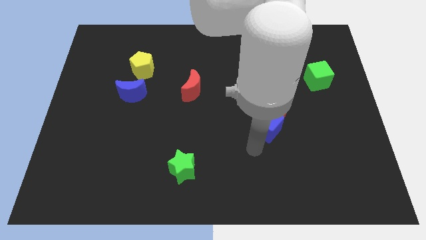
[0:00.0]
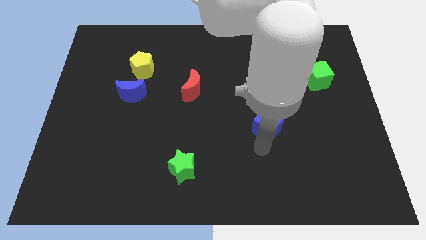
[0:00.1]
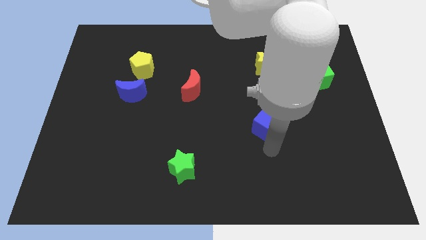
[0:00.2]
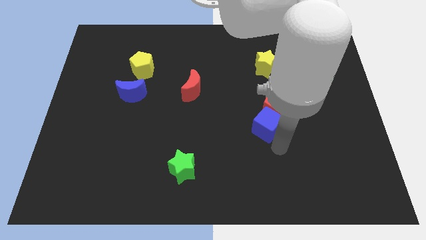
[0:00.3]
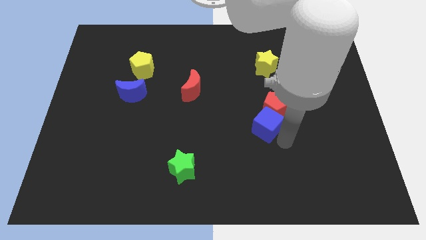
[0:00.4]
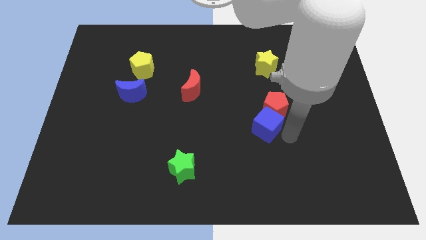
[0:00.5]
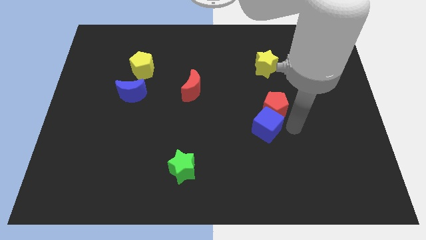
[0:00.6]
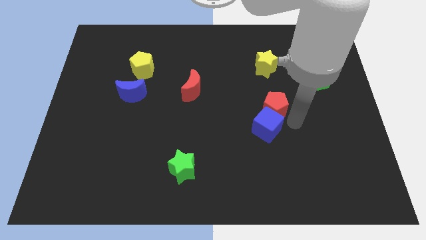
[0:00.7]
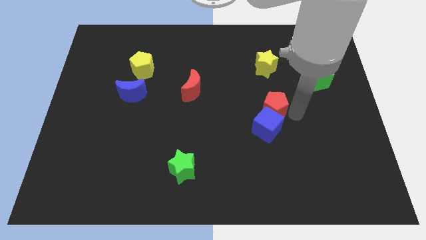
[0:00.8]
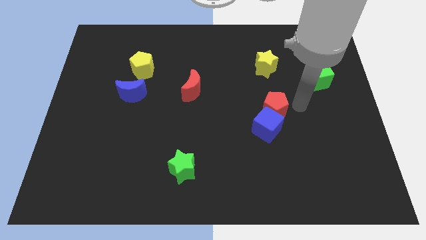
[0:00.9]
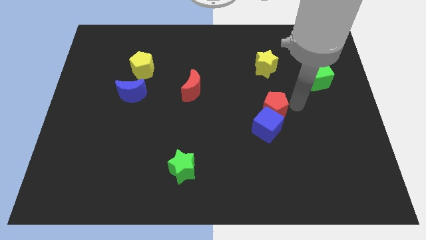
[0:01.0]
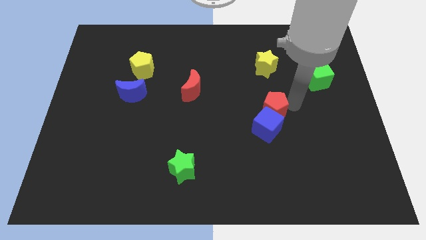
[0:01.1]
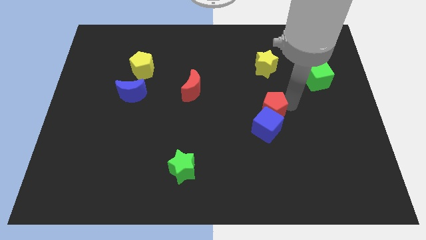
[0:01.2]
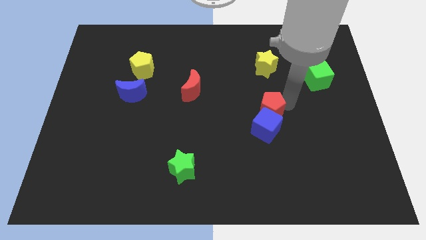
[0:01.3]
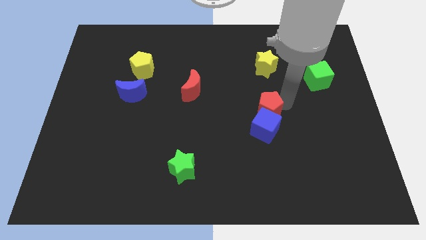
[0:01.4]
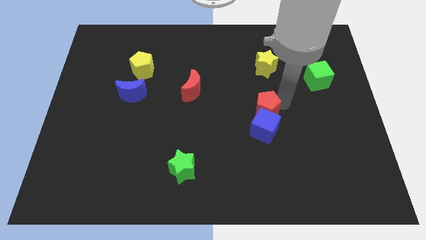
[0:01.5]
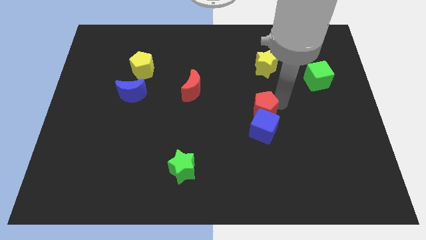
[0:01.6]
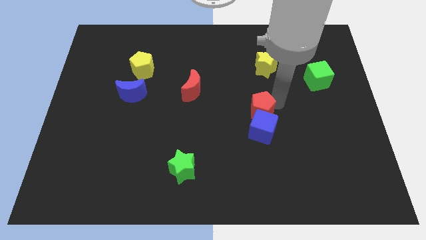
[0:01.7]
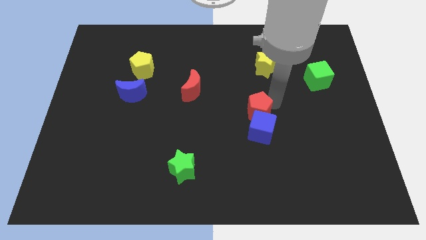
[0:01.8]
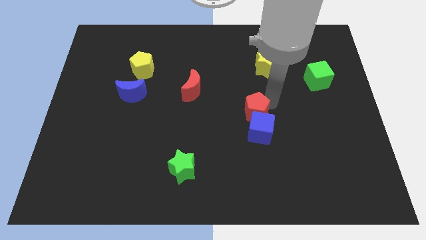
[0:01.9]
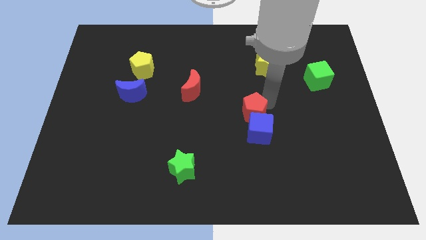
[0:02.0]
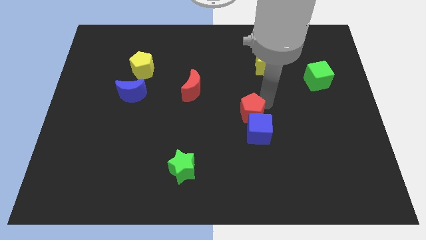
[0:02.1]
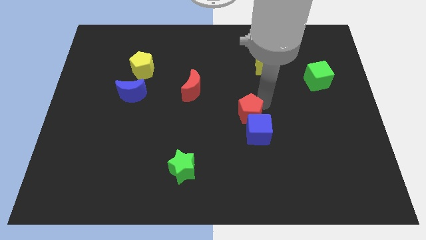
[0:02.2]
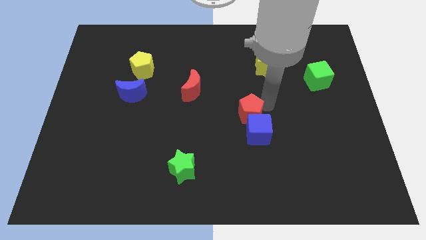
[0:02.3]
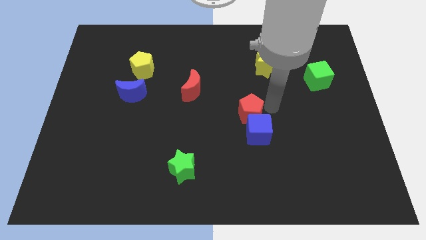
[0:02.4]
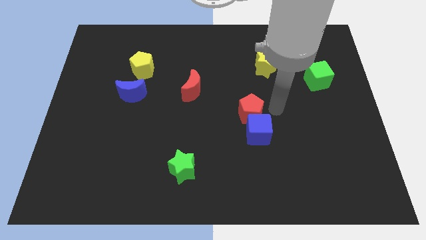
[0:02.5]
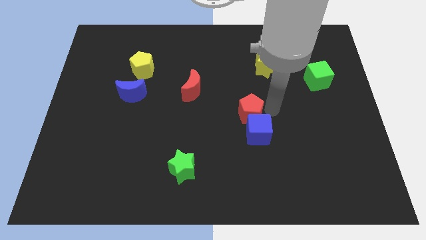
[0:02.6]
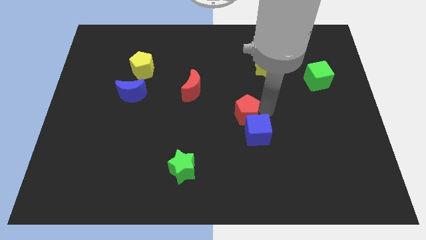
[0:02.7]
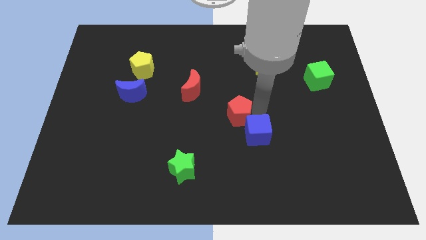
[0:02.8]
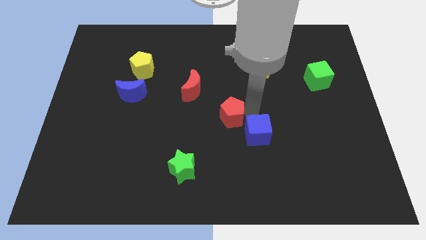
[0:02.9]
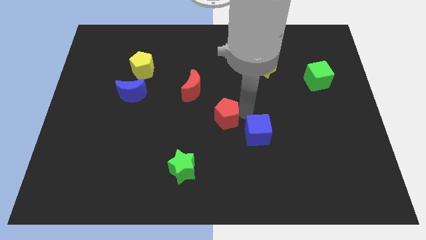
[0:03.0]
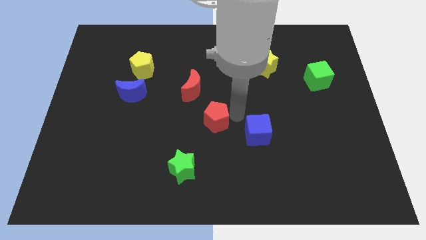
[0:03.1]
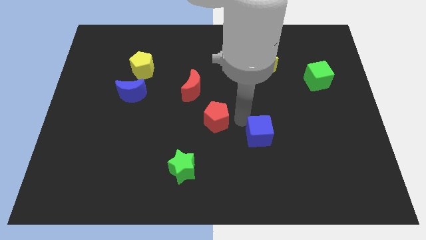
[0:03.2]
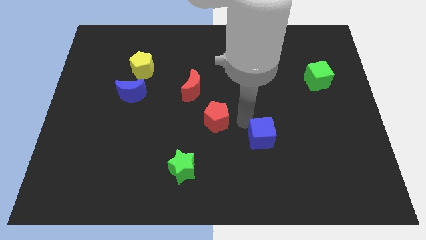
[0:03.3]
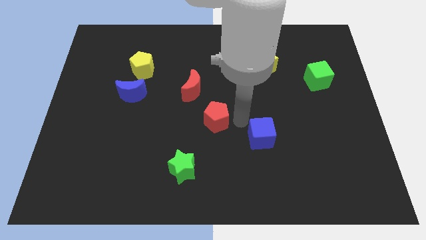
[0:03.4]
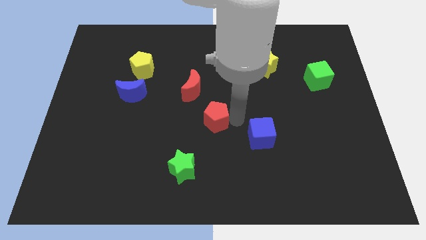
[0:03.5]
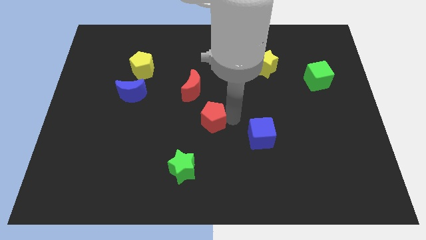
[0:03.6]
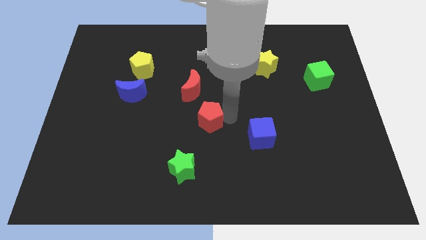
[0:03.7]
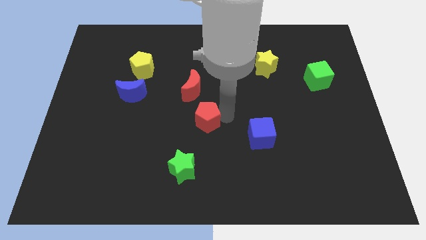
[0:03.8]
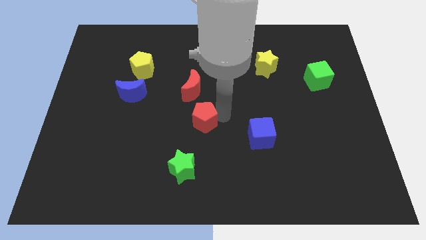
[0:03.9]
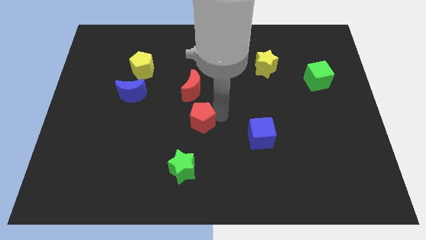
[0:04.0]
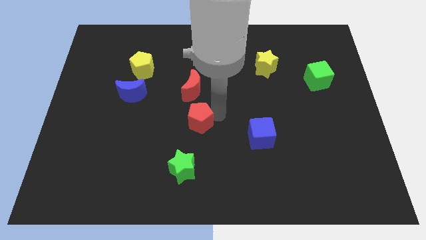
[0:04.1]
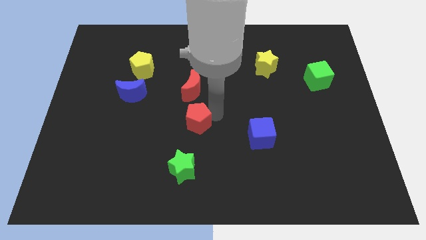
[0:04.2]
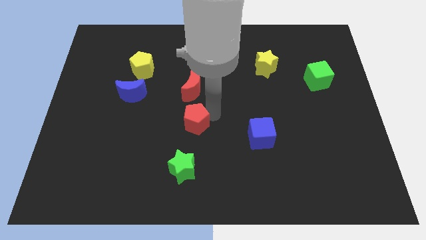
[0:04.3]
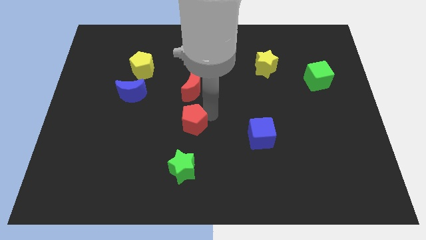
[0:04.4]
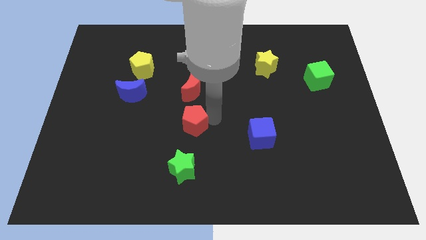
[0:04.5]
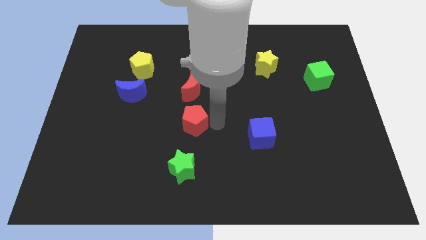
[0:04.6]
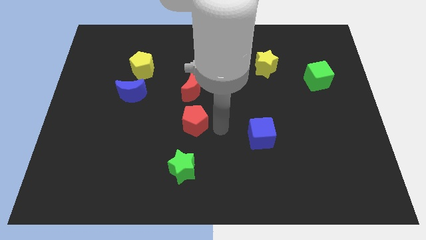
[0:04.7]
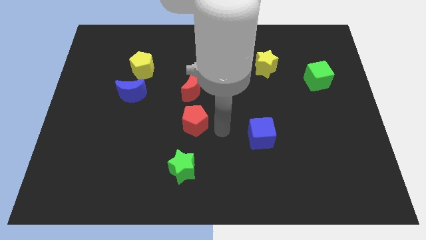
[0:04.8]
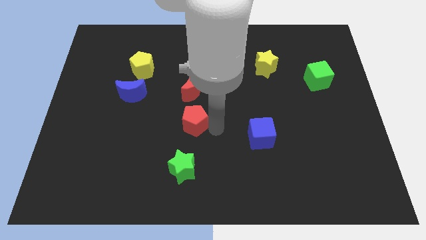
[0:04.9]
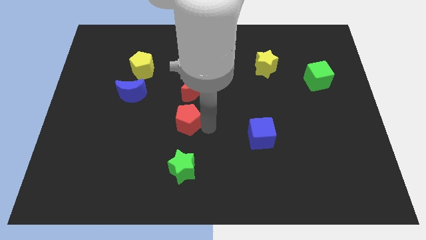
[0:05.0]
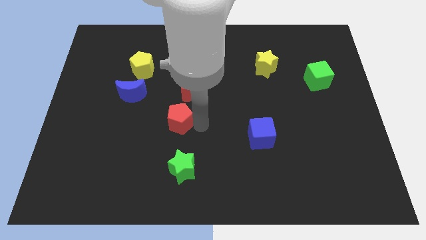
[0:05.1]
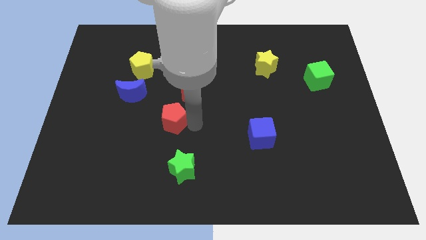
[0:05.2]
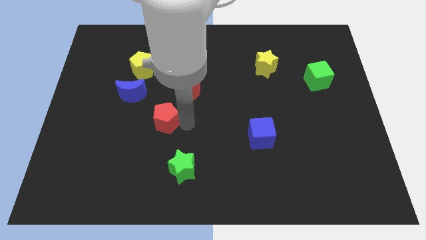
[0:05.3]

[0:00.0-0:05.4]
move the red pentagon to the bottom right side of the blue moon

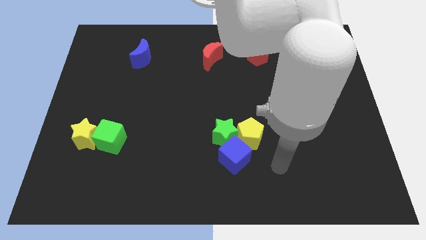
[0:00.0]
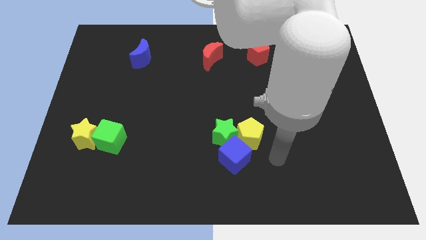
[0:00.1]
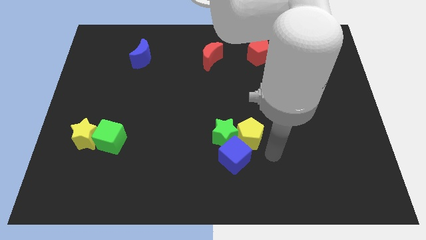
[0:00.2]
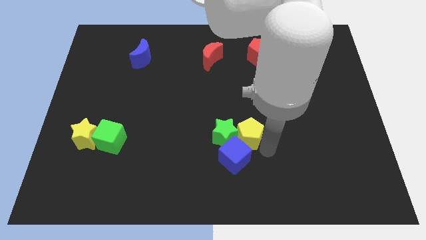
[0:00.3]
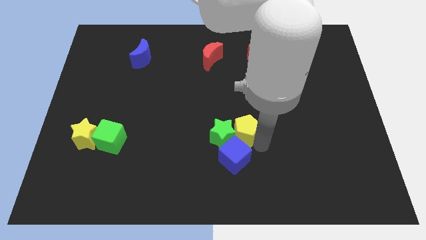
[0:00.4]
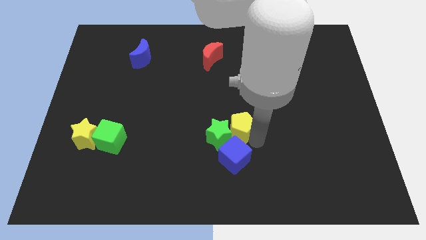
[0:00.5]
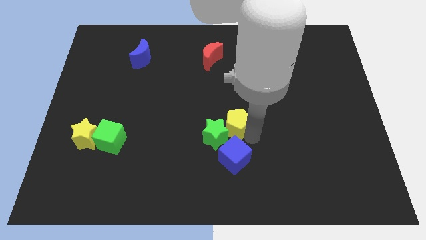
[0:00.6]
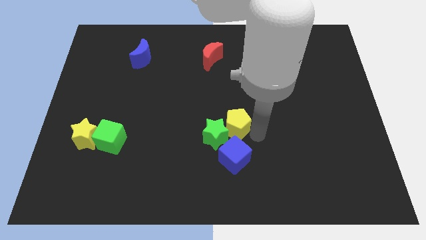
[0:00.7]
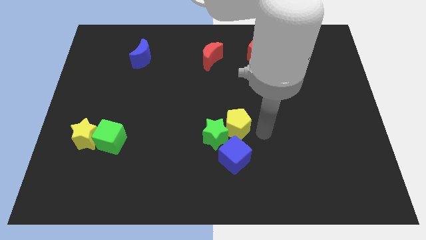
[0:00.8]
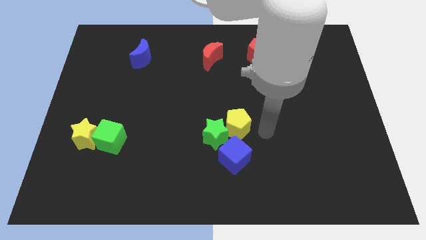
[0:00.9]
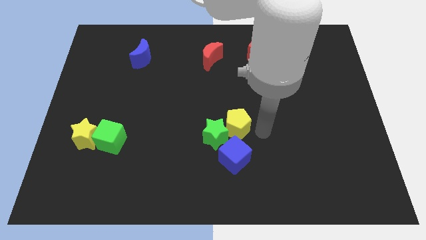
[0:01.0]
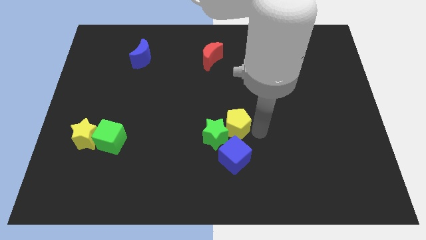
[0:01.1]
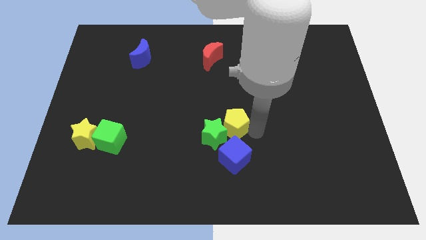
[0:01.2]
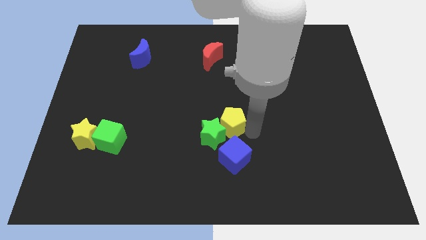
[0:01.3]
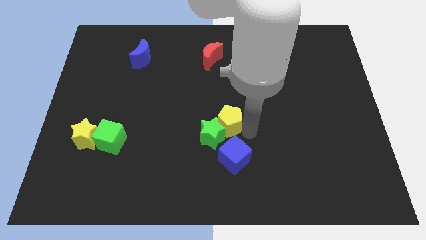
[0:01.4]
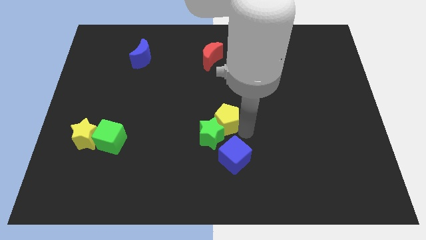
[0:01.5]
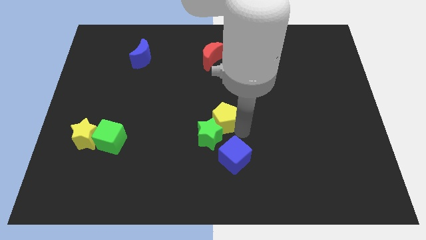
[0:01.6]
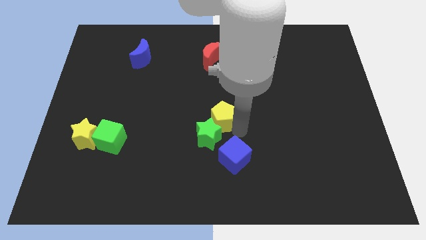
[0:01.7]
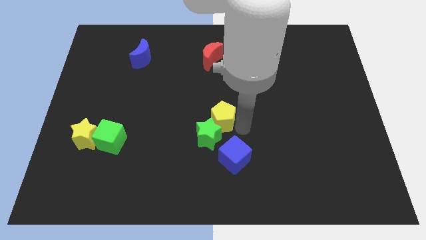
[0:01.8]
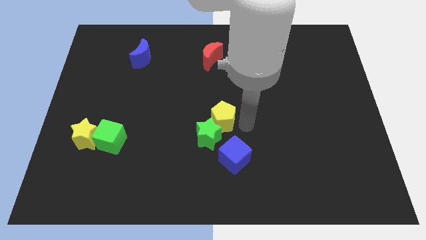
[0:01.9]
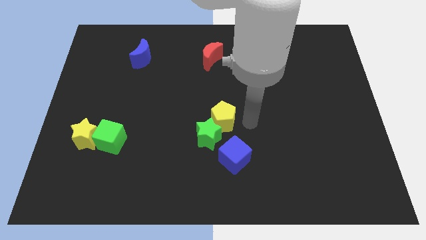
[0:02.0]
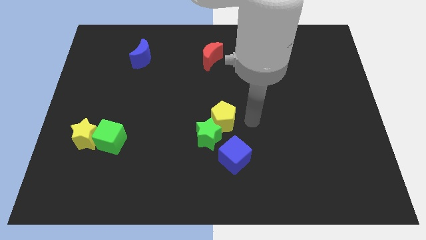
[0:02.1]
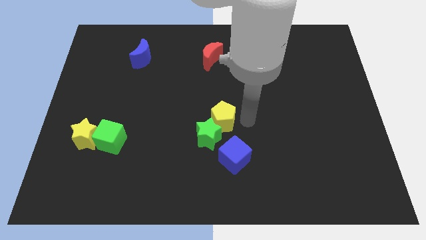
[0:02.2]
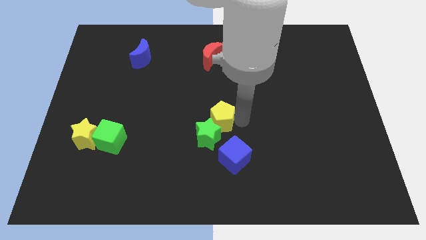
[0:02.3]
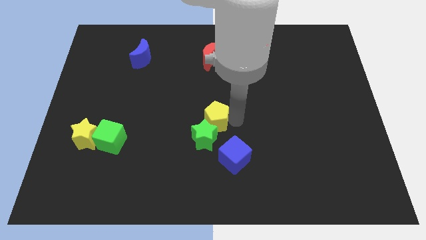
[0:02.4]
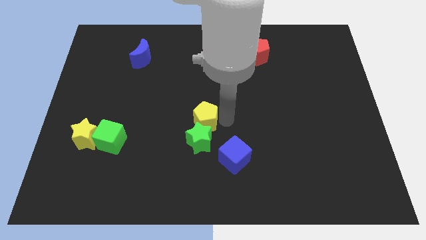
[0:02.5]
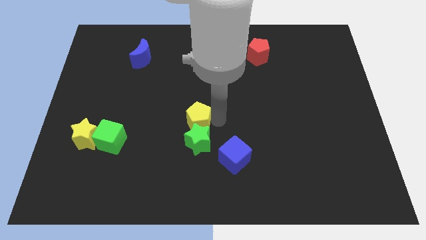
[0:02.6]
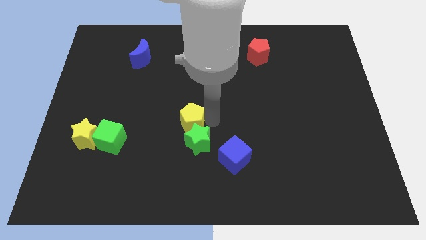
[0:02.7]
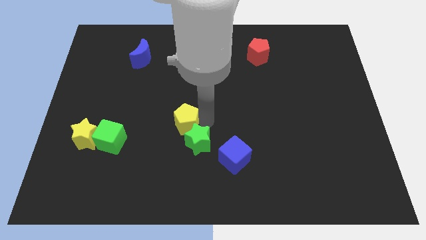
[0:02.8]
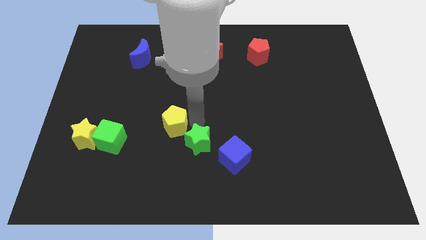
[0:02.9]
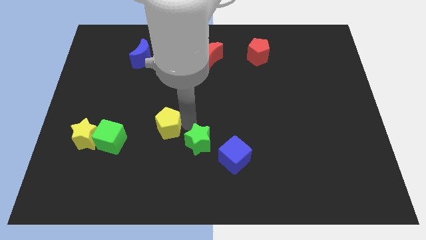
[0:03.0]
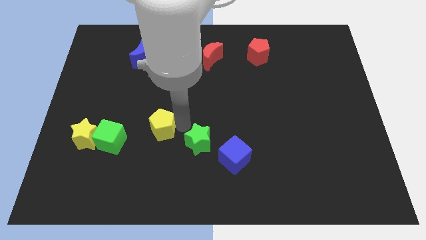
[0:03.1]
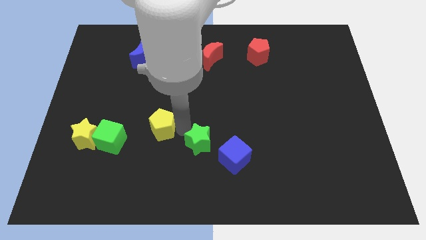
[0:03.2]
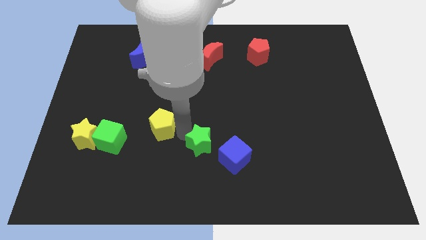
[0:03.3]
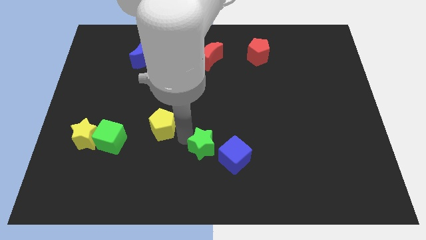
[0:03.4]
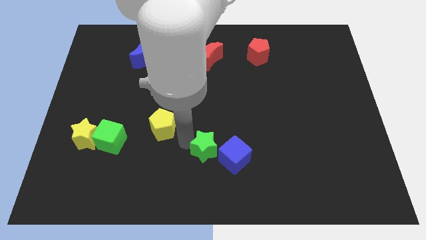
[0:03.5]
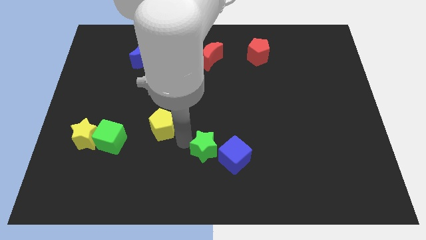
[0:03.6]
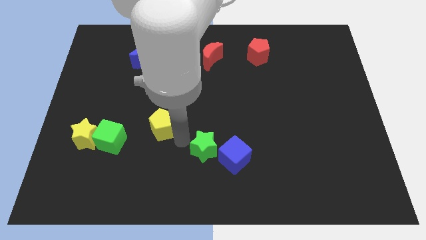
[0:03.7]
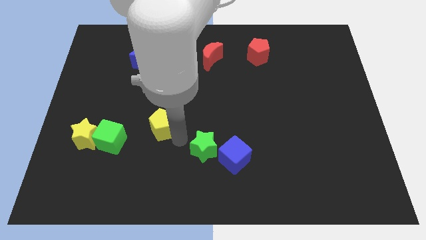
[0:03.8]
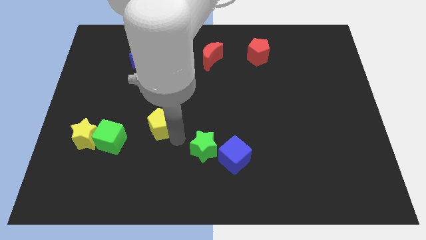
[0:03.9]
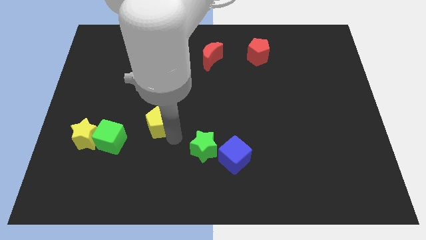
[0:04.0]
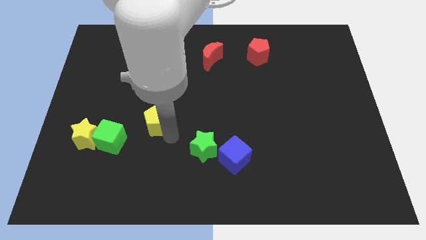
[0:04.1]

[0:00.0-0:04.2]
move the yellow pentagon to the top right of the green cube
